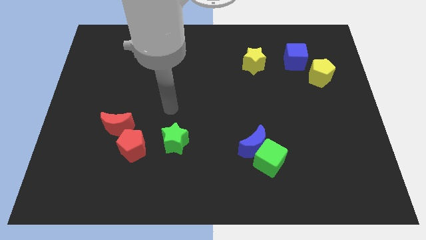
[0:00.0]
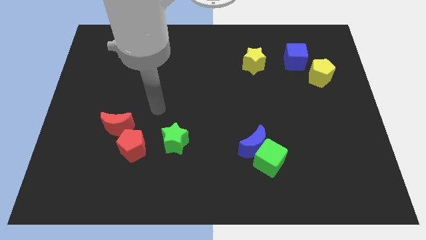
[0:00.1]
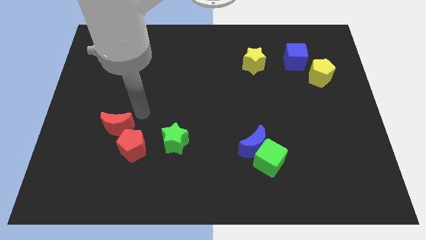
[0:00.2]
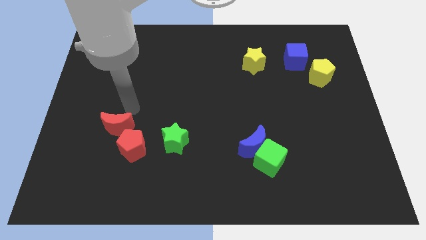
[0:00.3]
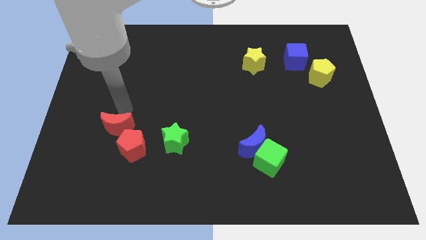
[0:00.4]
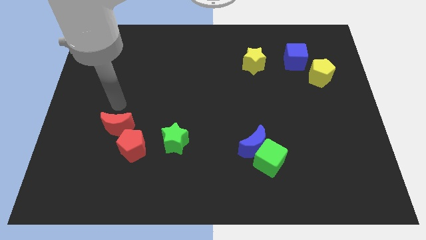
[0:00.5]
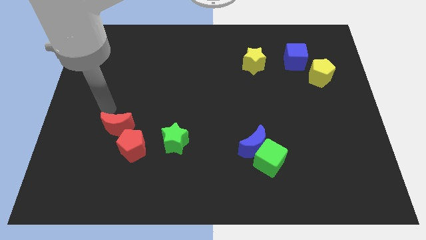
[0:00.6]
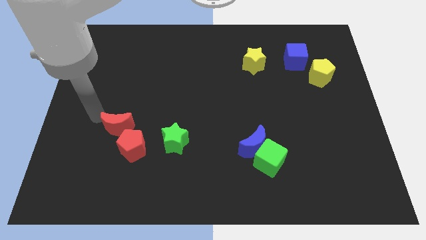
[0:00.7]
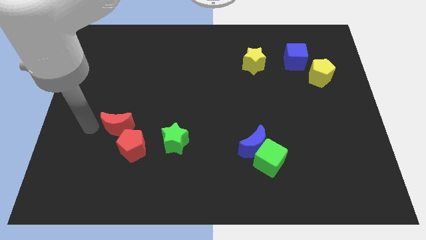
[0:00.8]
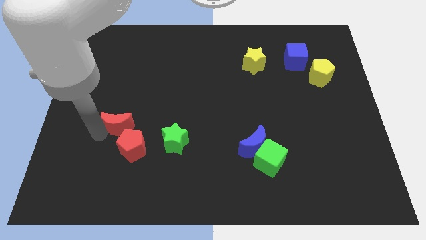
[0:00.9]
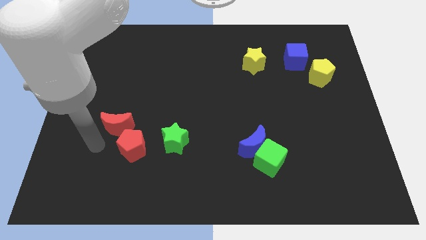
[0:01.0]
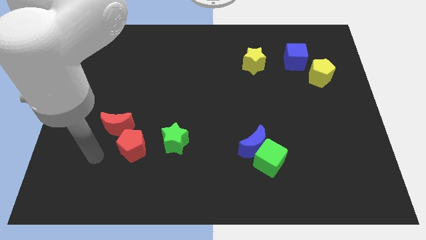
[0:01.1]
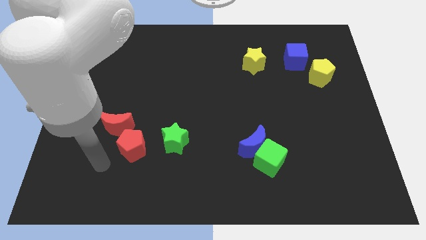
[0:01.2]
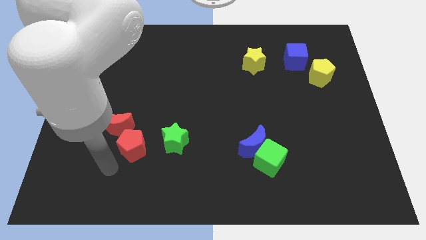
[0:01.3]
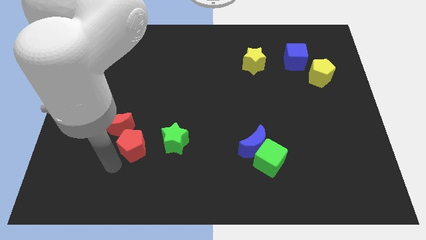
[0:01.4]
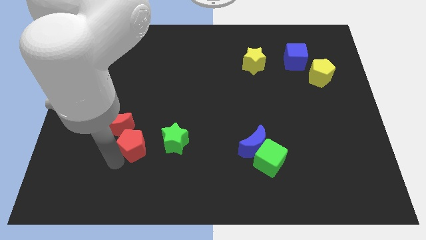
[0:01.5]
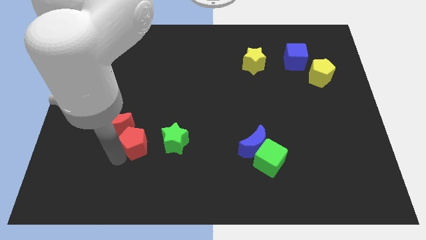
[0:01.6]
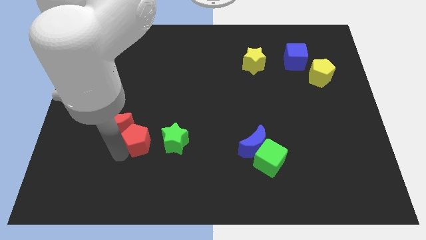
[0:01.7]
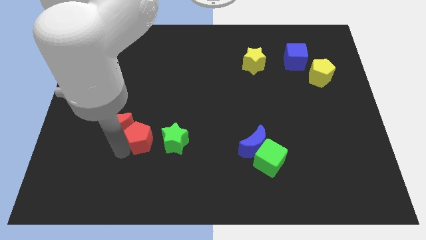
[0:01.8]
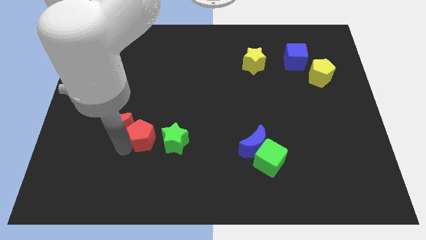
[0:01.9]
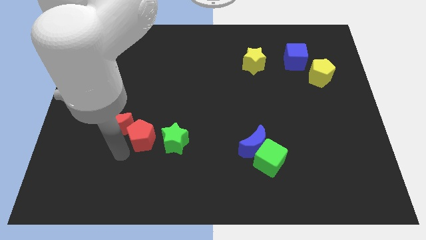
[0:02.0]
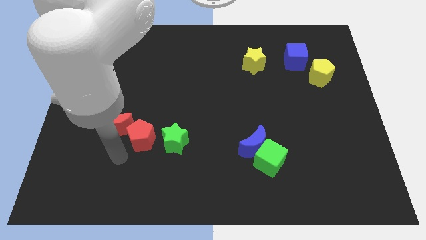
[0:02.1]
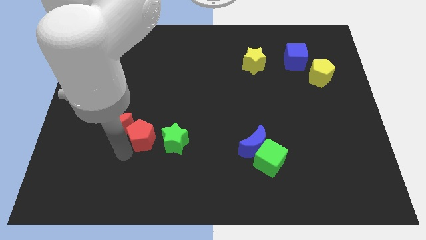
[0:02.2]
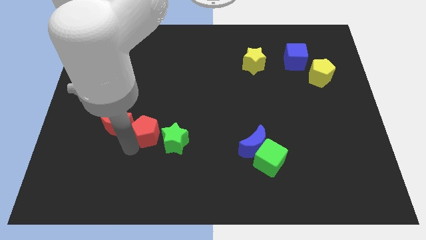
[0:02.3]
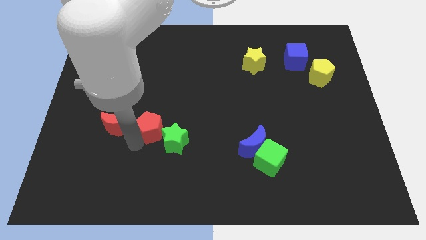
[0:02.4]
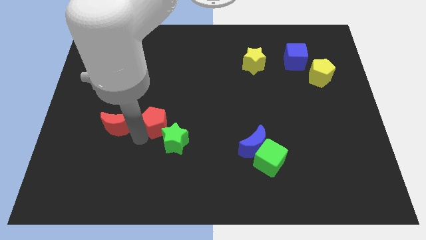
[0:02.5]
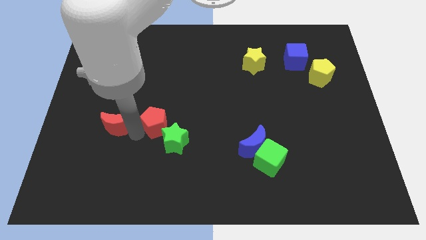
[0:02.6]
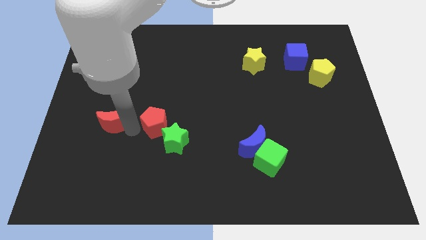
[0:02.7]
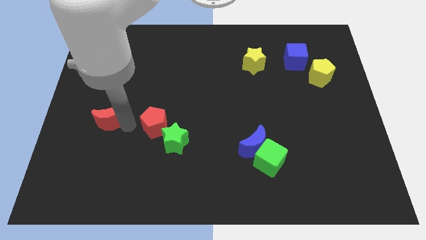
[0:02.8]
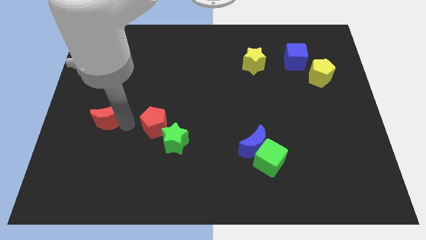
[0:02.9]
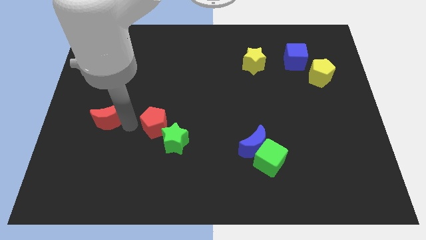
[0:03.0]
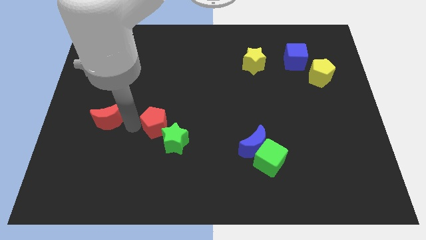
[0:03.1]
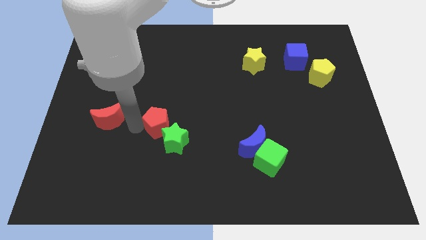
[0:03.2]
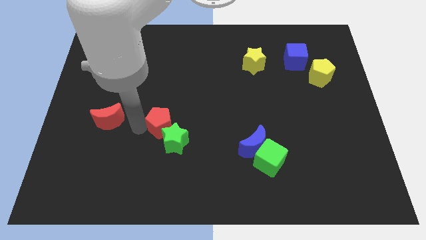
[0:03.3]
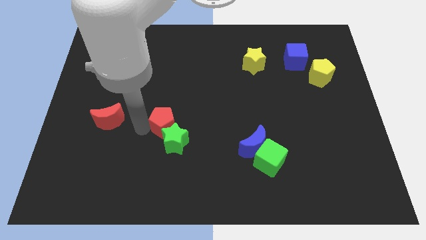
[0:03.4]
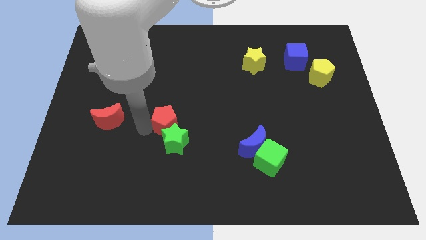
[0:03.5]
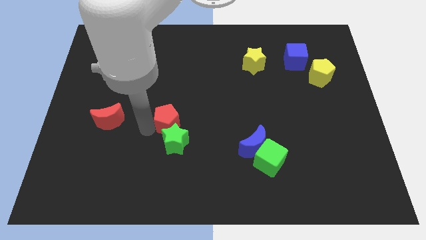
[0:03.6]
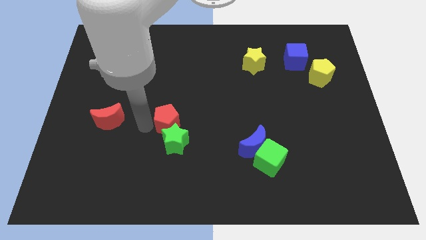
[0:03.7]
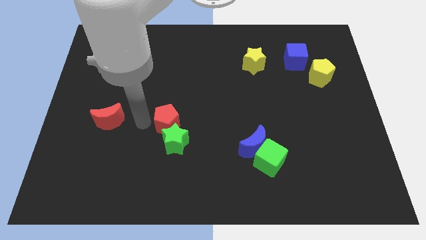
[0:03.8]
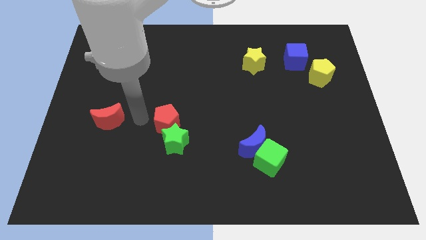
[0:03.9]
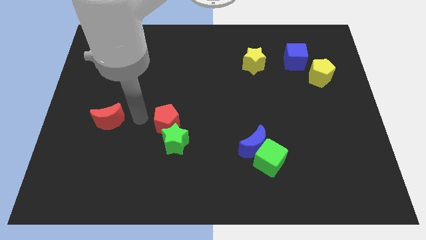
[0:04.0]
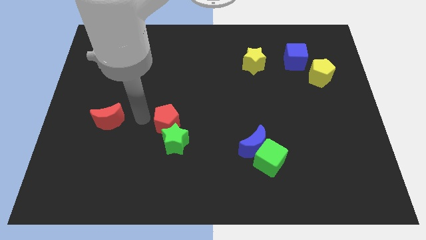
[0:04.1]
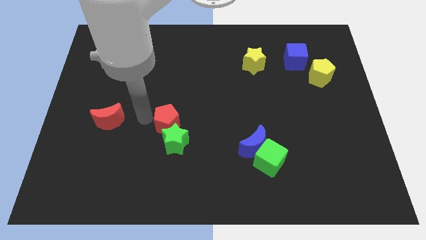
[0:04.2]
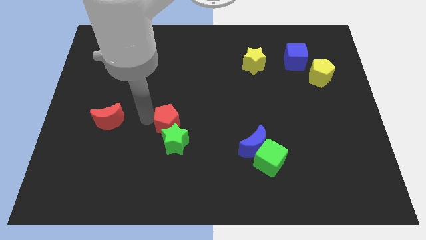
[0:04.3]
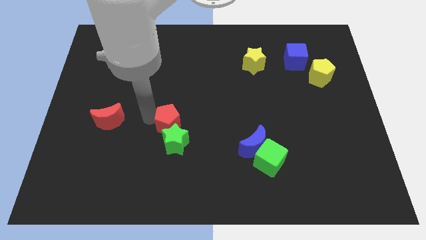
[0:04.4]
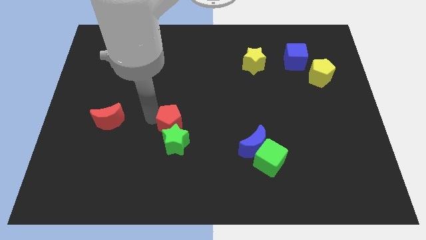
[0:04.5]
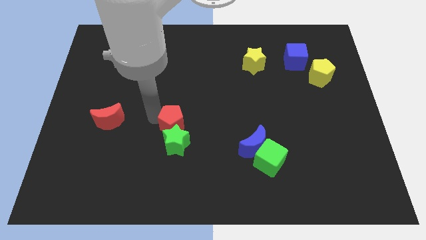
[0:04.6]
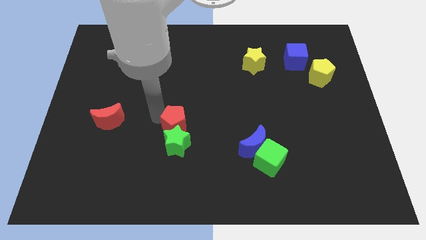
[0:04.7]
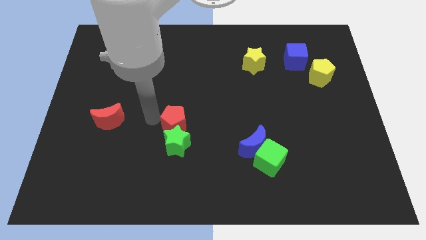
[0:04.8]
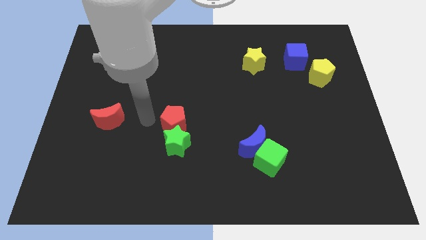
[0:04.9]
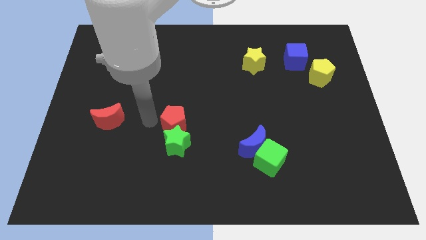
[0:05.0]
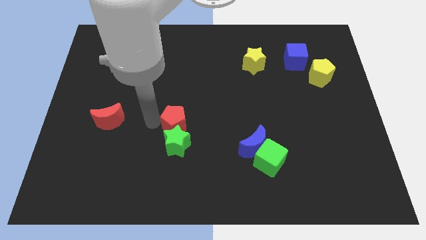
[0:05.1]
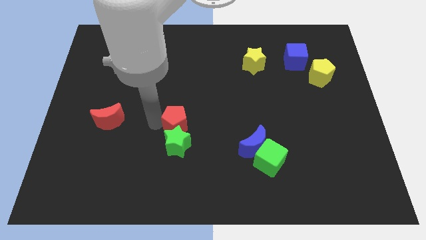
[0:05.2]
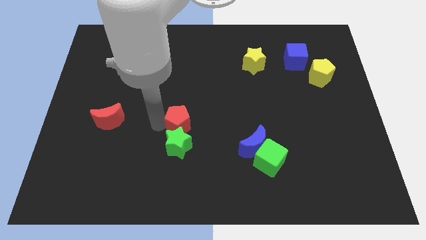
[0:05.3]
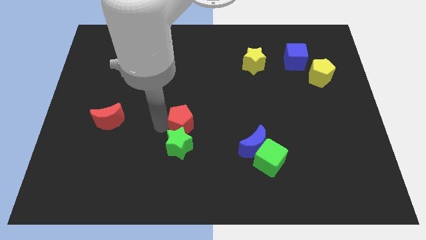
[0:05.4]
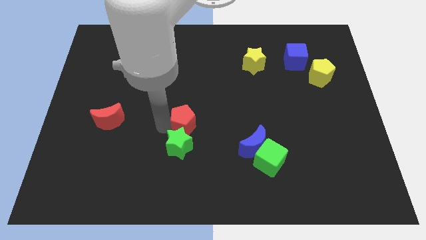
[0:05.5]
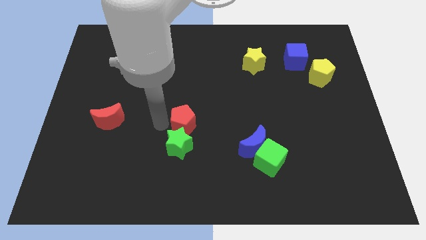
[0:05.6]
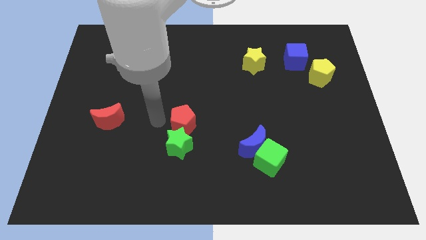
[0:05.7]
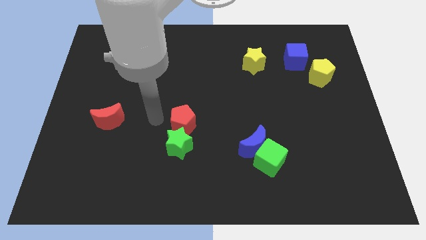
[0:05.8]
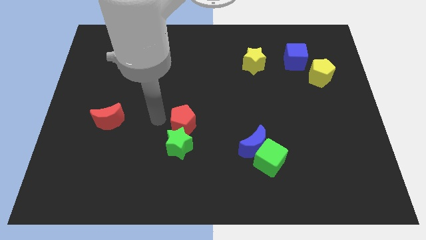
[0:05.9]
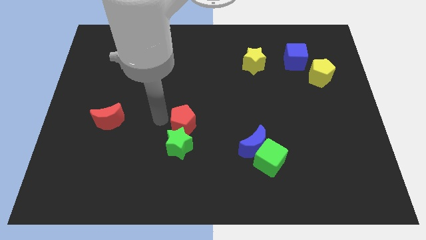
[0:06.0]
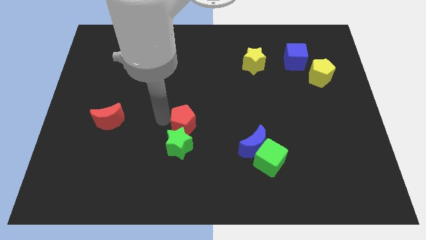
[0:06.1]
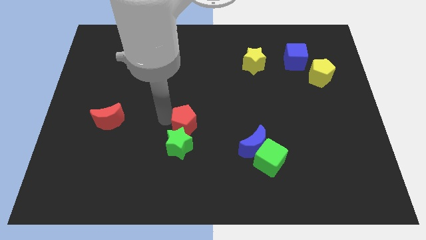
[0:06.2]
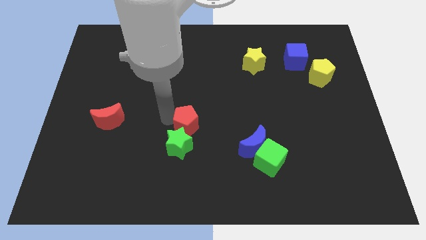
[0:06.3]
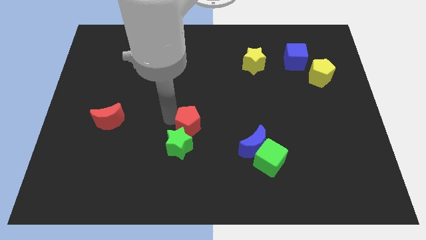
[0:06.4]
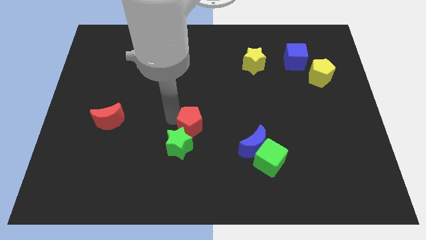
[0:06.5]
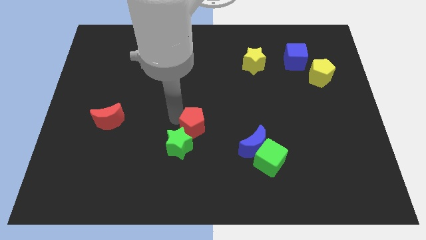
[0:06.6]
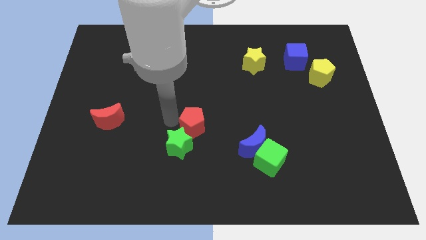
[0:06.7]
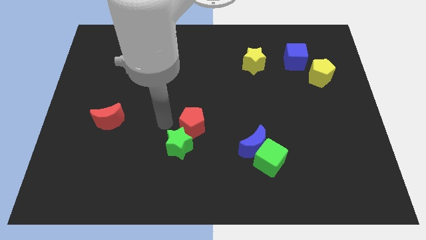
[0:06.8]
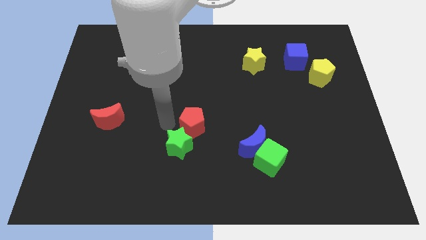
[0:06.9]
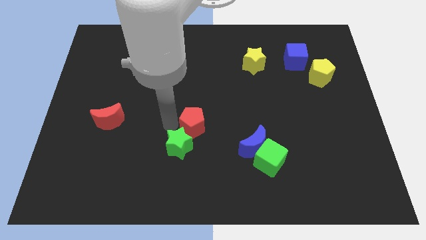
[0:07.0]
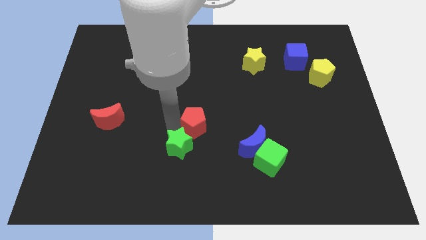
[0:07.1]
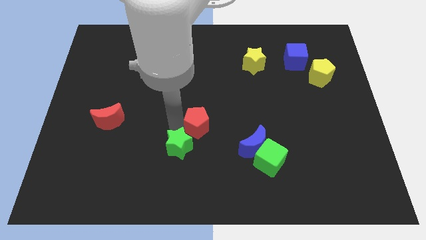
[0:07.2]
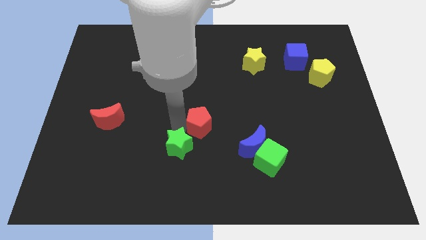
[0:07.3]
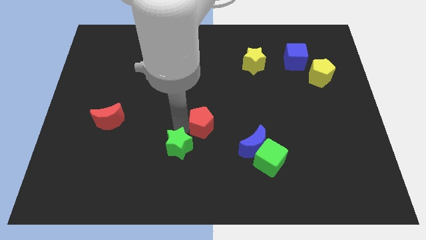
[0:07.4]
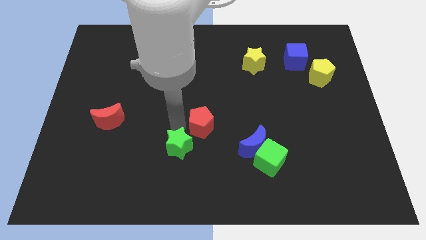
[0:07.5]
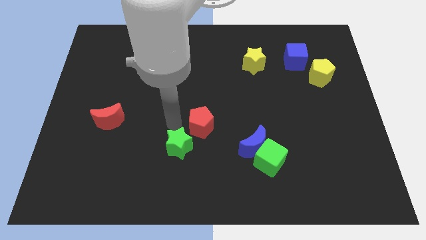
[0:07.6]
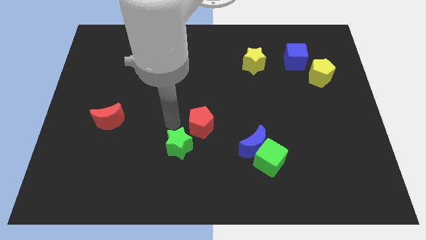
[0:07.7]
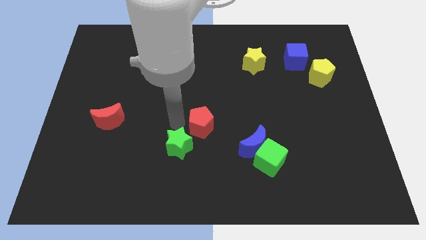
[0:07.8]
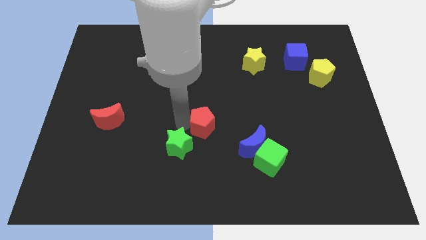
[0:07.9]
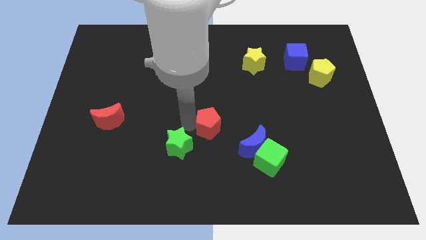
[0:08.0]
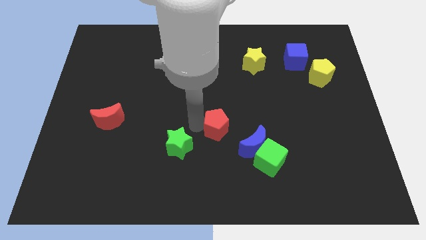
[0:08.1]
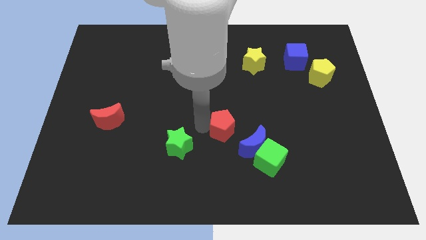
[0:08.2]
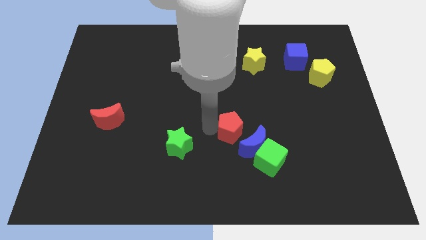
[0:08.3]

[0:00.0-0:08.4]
push the red pentagon to the right
